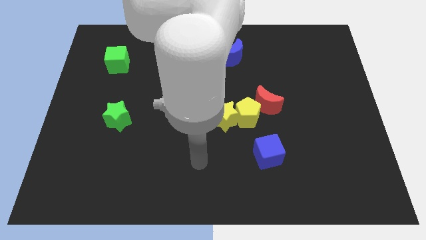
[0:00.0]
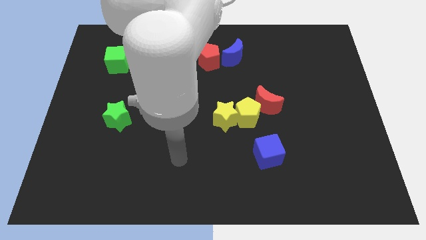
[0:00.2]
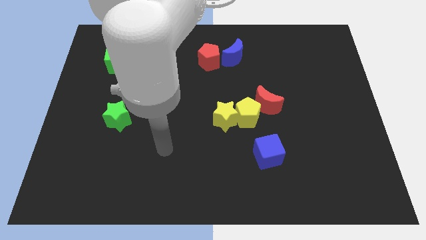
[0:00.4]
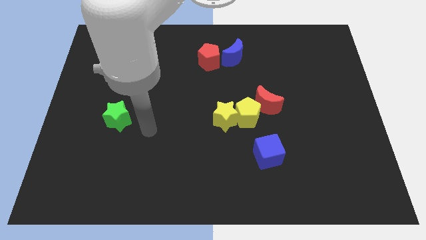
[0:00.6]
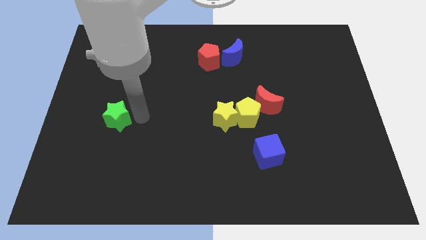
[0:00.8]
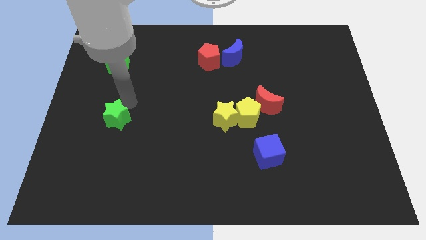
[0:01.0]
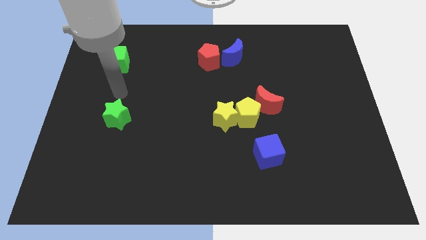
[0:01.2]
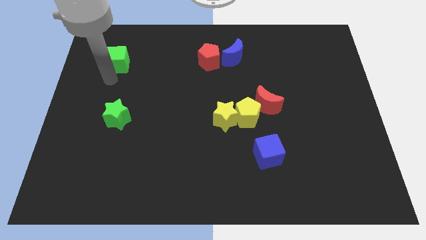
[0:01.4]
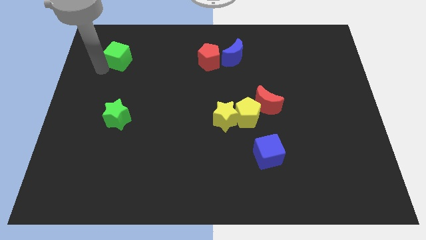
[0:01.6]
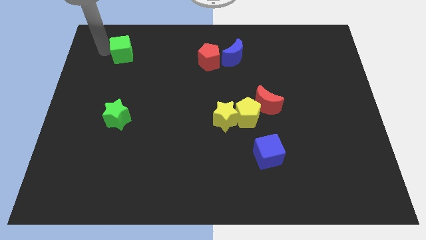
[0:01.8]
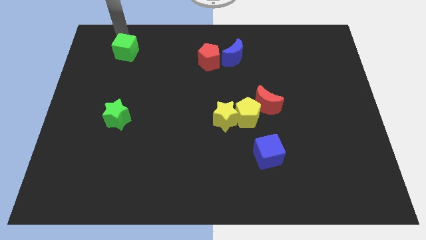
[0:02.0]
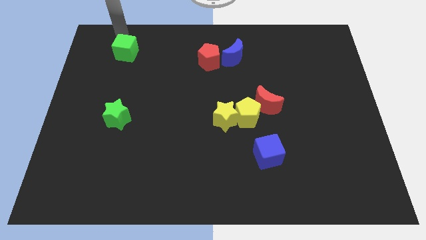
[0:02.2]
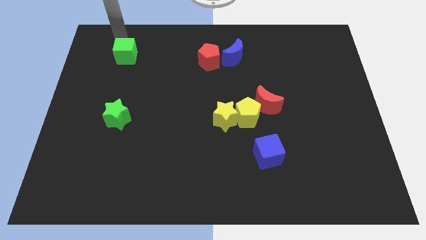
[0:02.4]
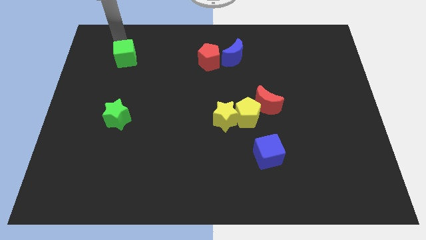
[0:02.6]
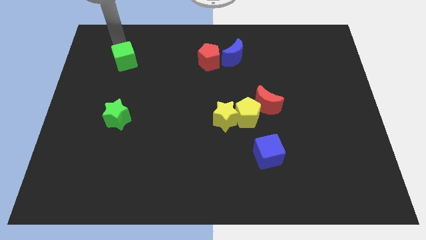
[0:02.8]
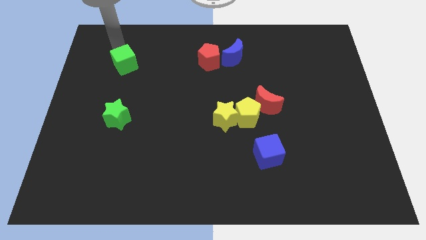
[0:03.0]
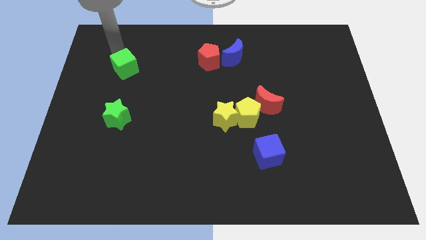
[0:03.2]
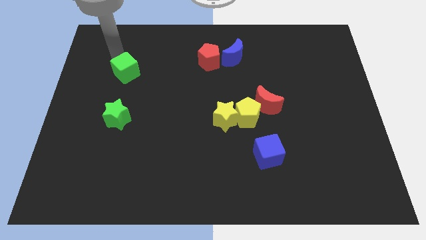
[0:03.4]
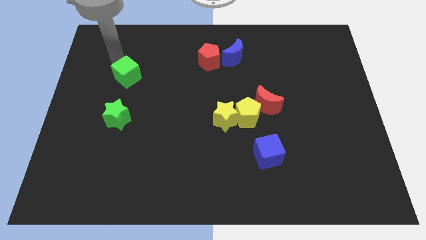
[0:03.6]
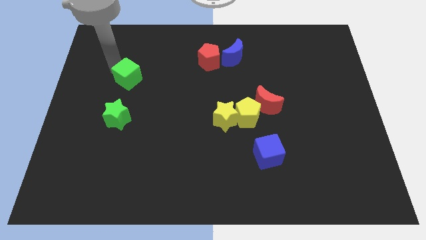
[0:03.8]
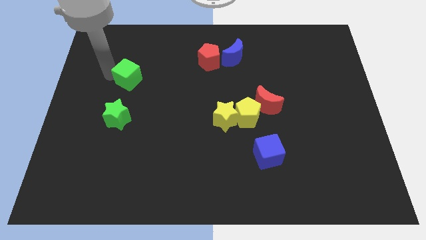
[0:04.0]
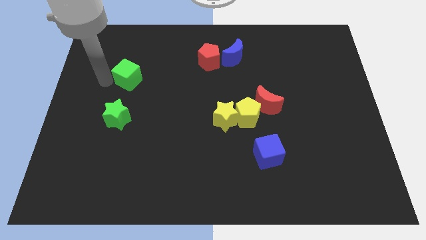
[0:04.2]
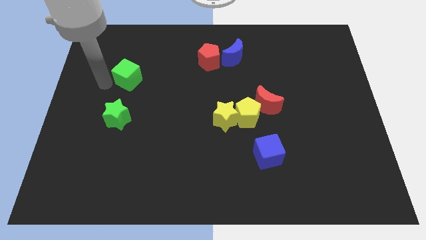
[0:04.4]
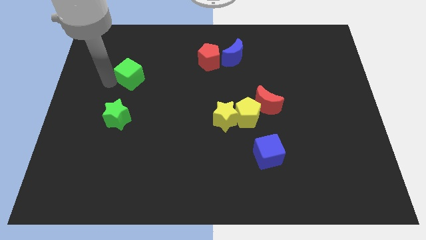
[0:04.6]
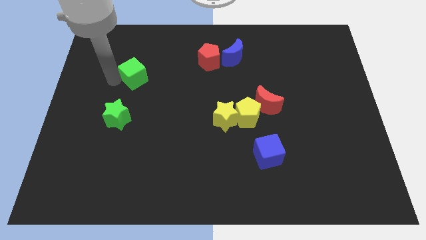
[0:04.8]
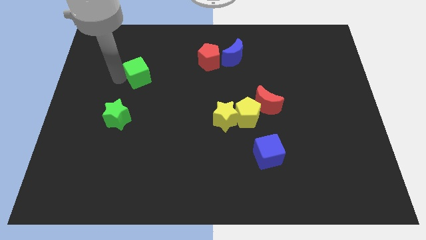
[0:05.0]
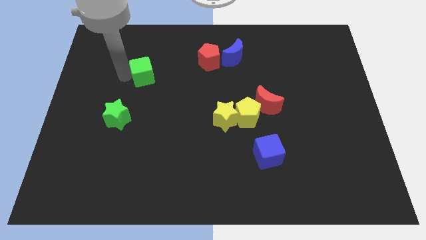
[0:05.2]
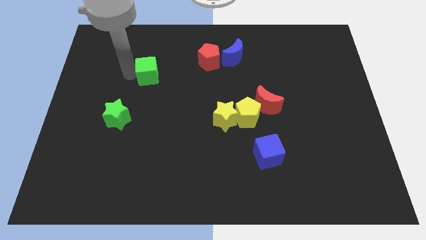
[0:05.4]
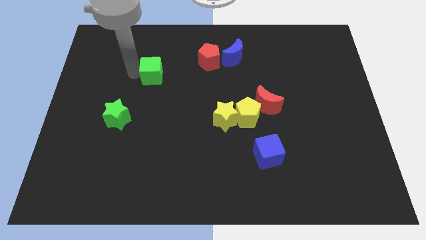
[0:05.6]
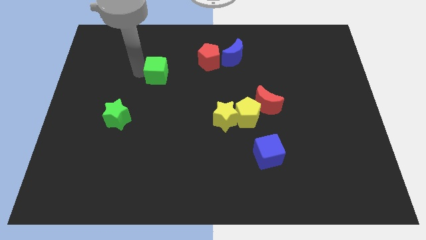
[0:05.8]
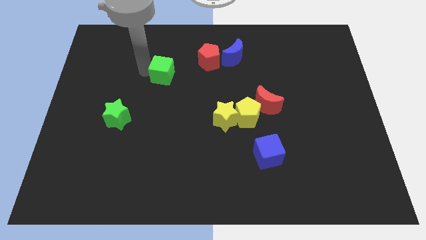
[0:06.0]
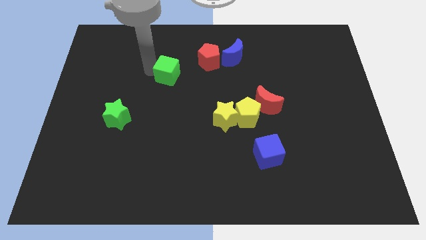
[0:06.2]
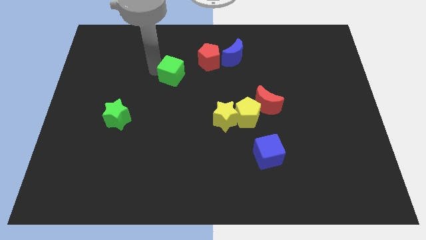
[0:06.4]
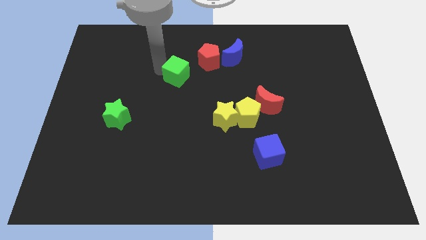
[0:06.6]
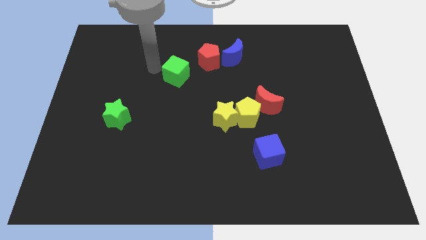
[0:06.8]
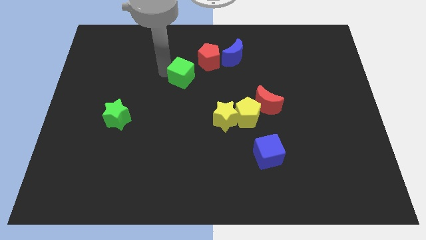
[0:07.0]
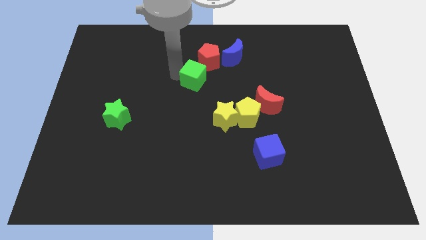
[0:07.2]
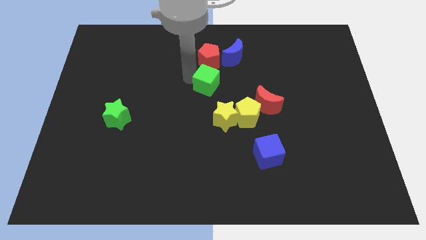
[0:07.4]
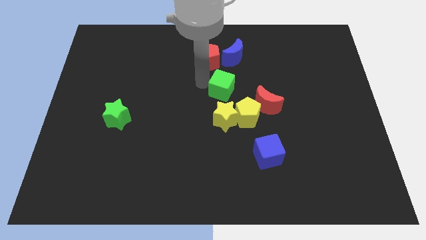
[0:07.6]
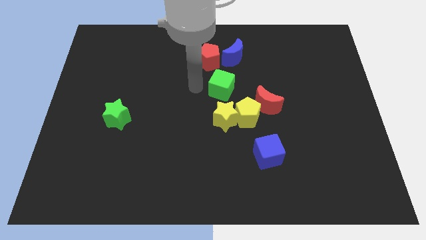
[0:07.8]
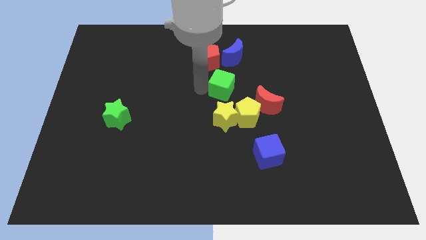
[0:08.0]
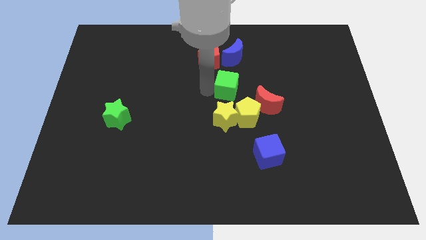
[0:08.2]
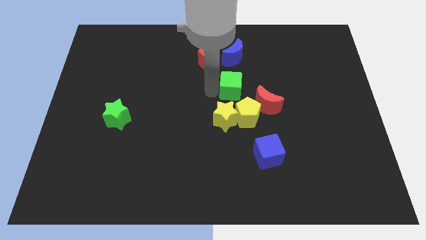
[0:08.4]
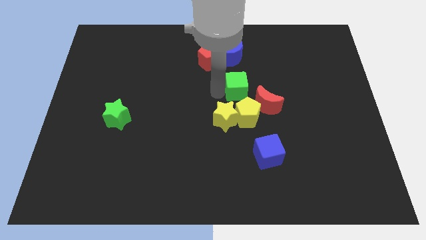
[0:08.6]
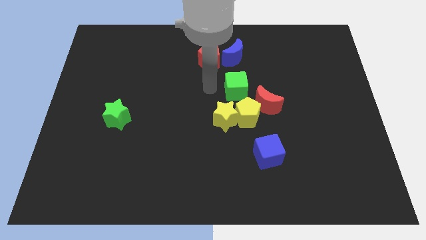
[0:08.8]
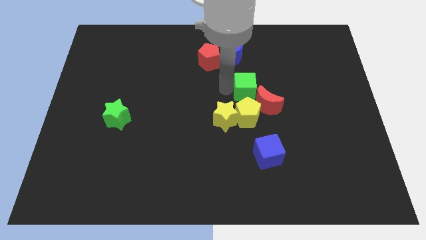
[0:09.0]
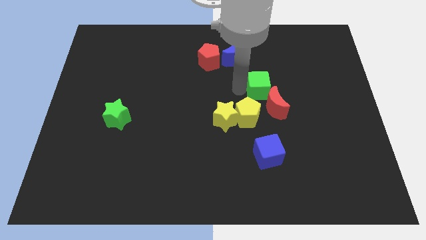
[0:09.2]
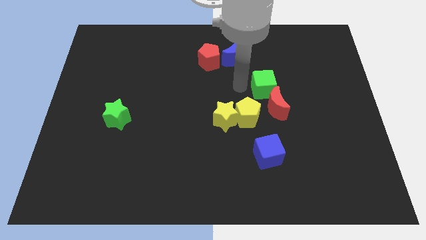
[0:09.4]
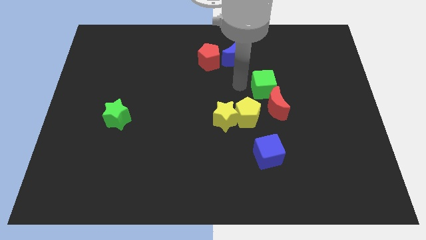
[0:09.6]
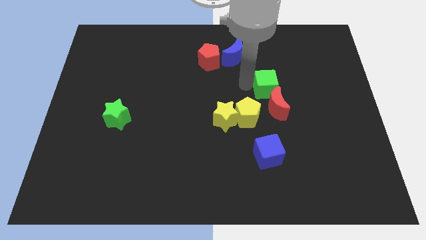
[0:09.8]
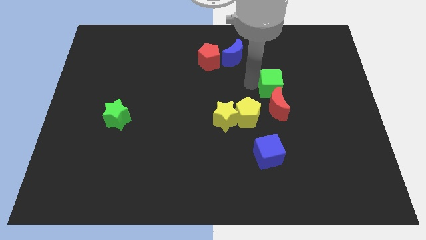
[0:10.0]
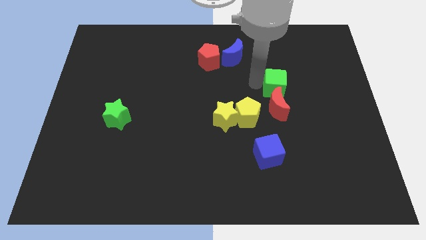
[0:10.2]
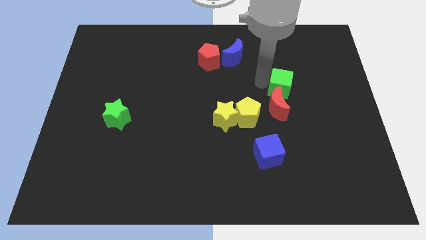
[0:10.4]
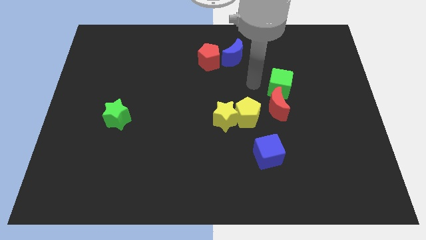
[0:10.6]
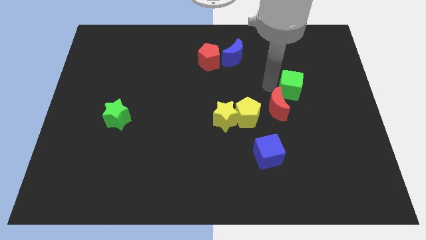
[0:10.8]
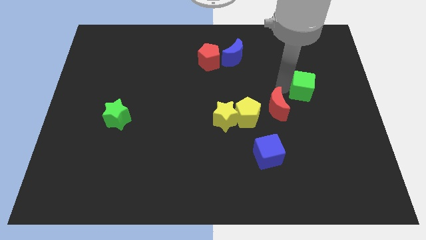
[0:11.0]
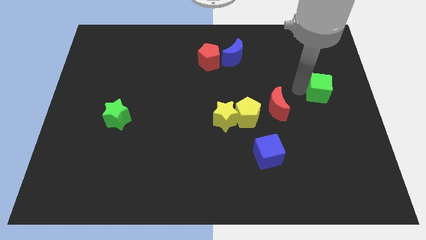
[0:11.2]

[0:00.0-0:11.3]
push the green cube to the right side
